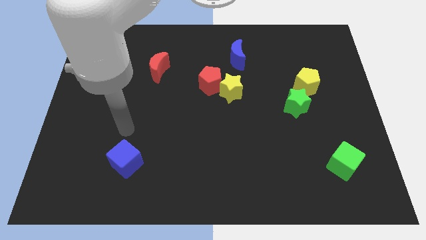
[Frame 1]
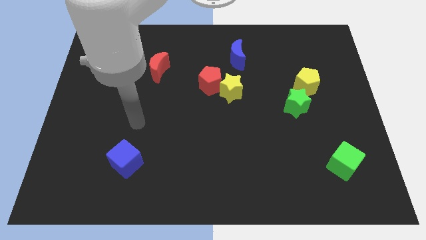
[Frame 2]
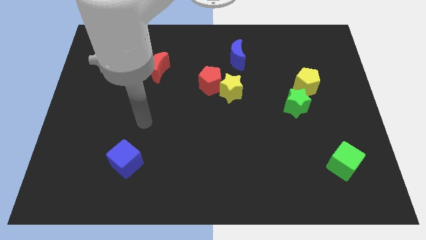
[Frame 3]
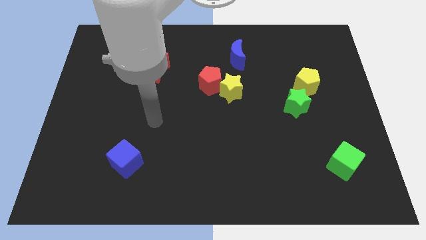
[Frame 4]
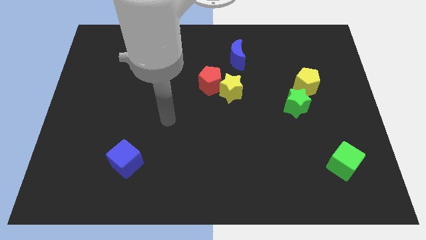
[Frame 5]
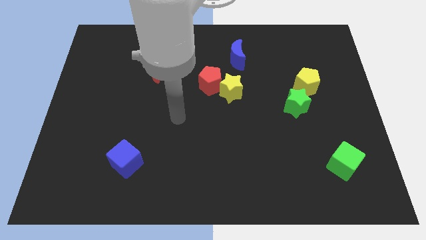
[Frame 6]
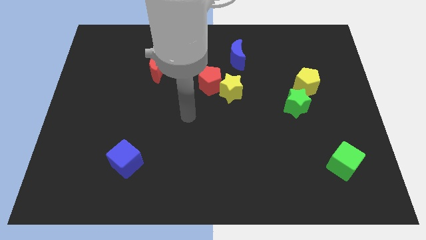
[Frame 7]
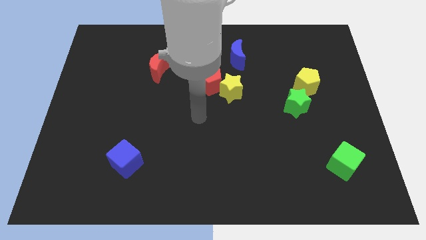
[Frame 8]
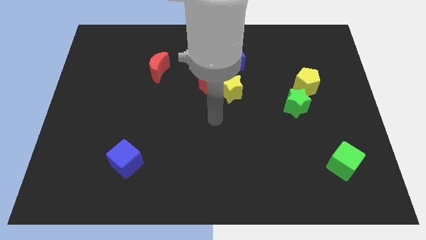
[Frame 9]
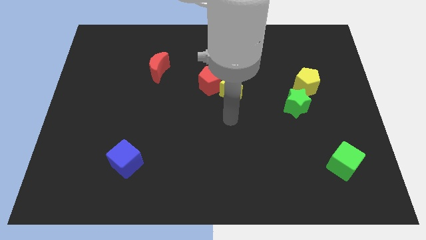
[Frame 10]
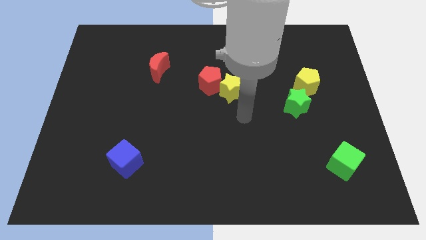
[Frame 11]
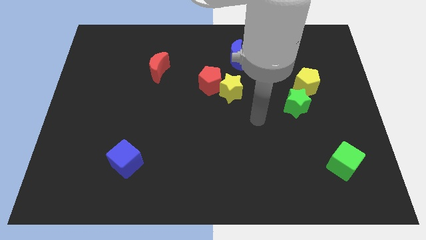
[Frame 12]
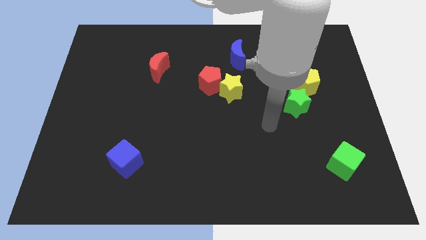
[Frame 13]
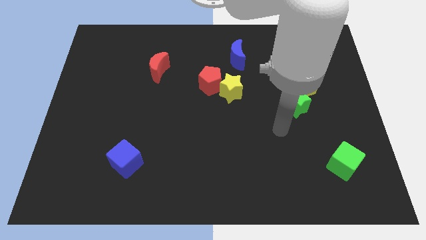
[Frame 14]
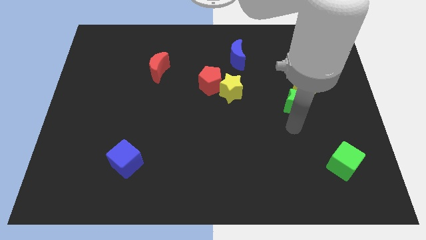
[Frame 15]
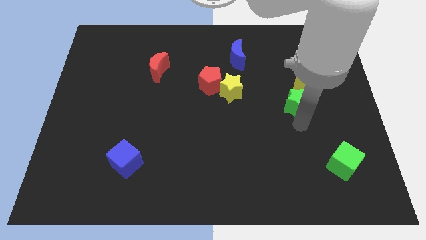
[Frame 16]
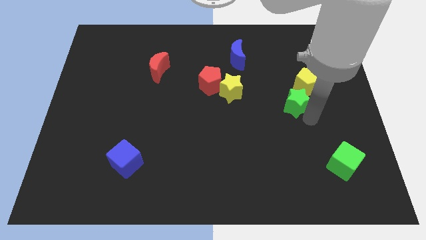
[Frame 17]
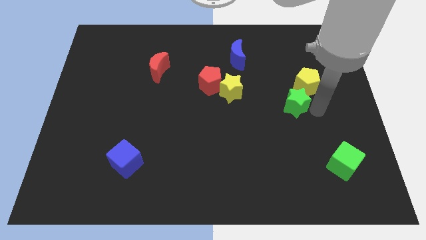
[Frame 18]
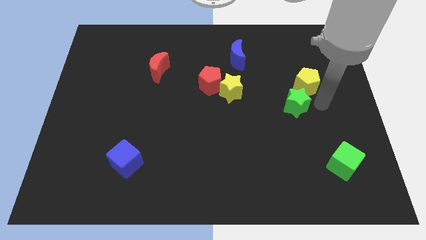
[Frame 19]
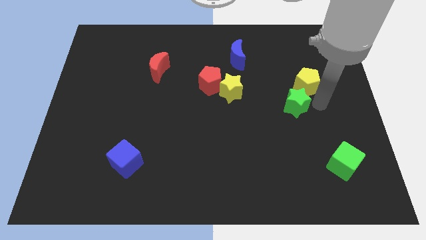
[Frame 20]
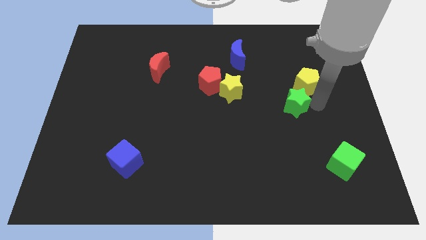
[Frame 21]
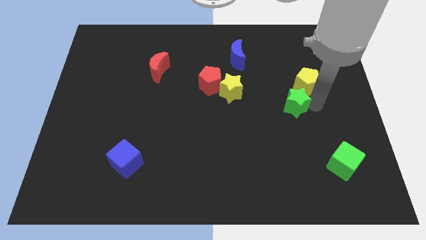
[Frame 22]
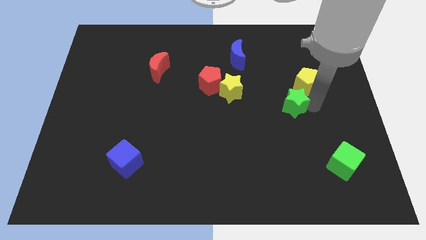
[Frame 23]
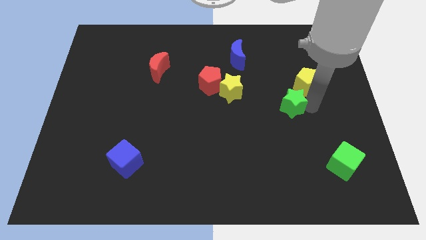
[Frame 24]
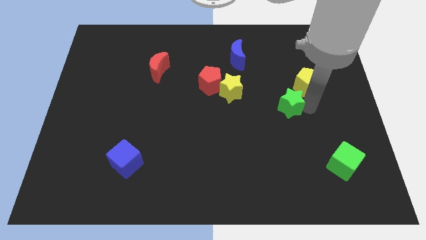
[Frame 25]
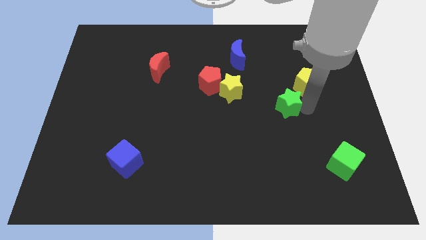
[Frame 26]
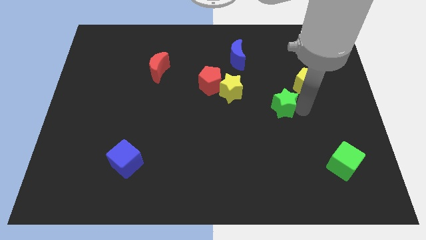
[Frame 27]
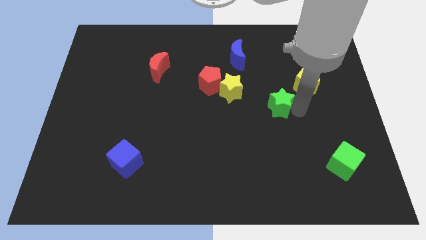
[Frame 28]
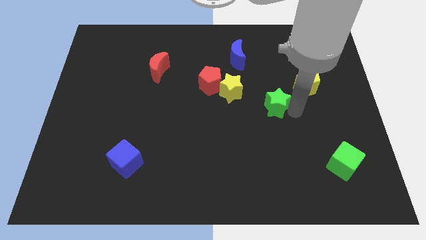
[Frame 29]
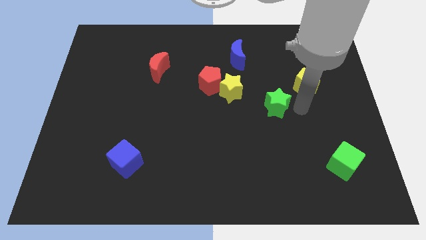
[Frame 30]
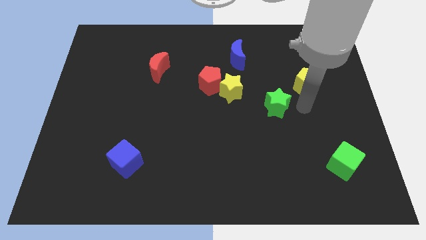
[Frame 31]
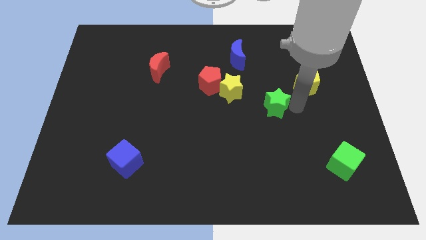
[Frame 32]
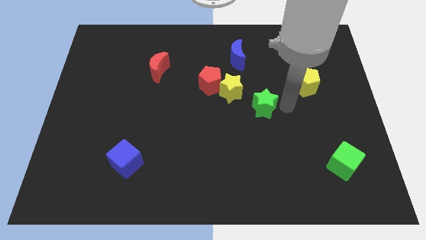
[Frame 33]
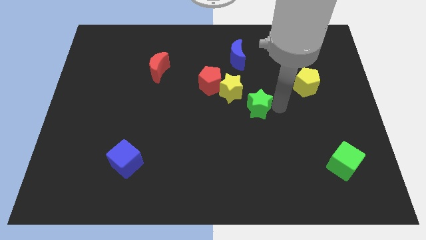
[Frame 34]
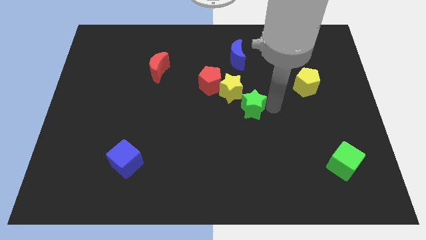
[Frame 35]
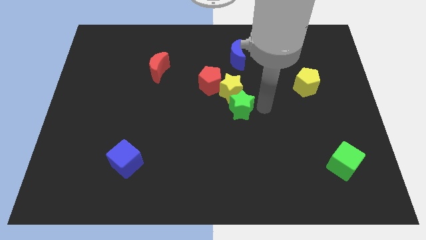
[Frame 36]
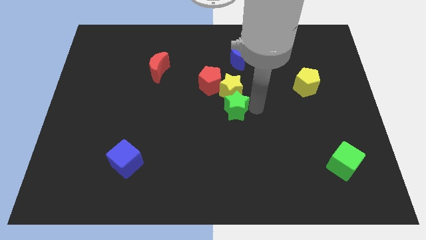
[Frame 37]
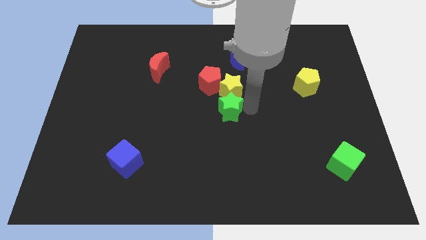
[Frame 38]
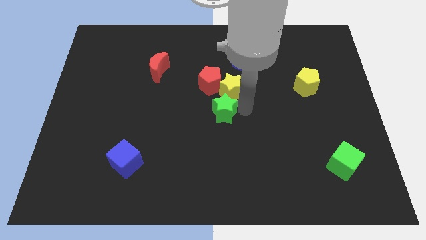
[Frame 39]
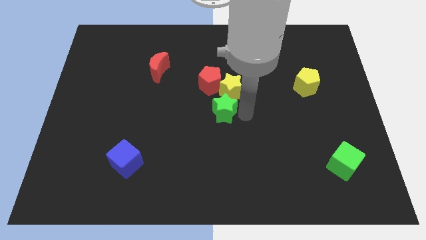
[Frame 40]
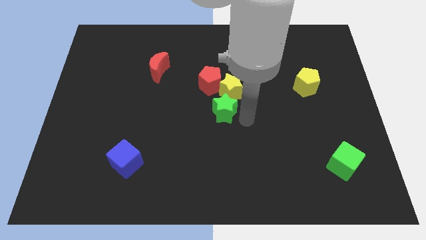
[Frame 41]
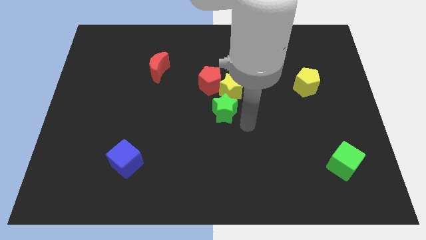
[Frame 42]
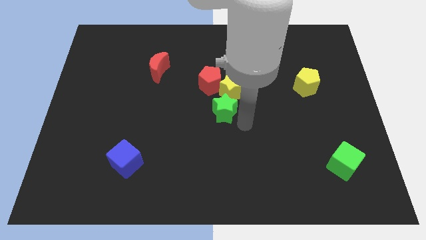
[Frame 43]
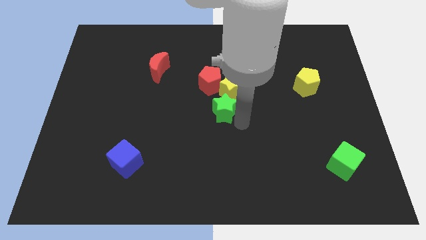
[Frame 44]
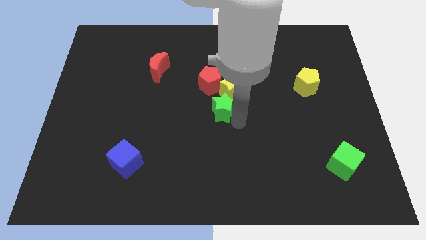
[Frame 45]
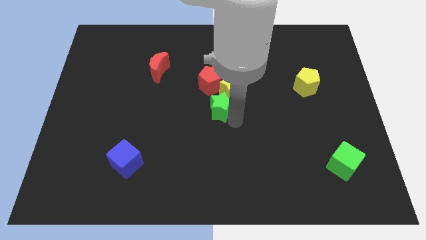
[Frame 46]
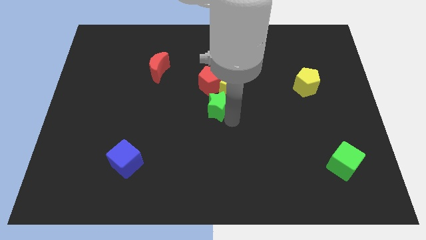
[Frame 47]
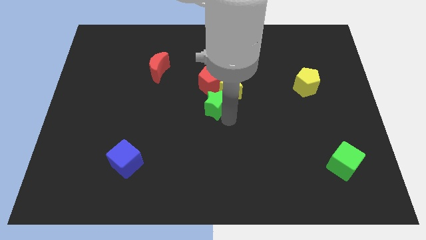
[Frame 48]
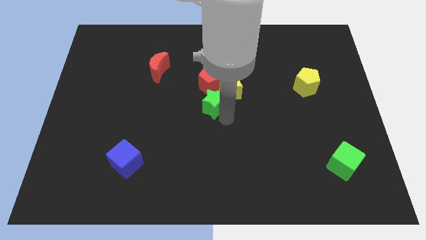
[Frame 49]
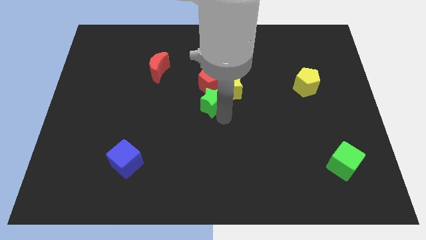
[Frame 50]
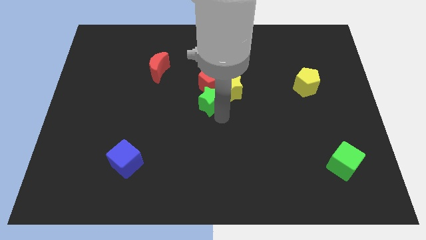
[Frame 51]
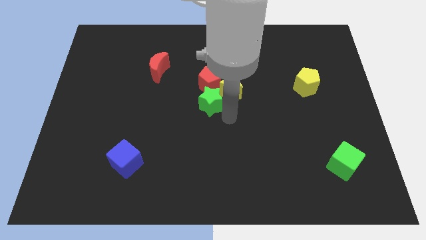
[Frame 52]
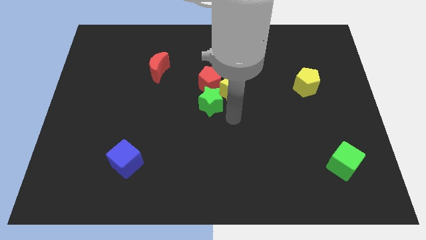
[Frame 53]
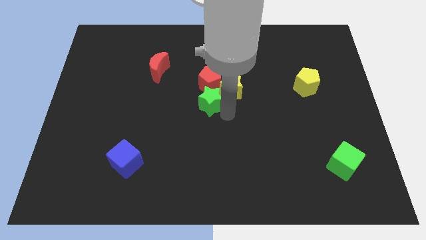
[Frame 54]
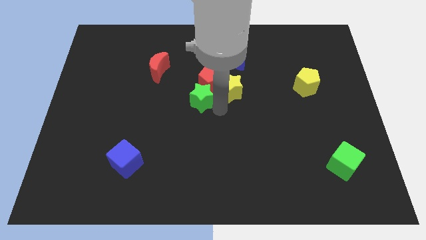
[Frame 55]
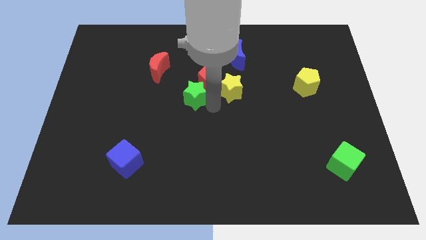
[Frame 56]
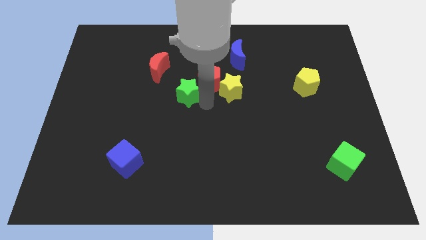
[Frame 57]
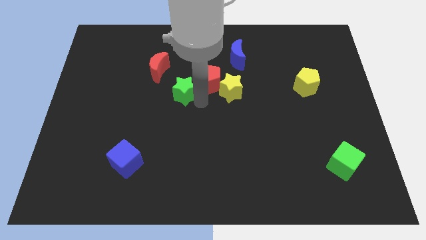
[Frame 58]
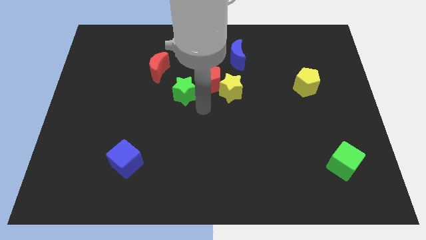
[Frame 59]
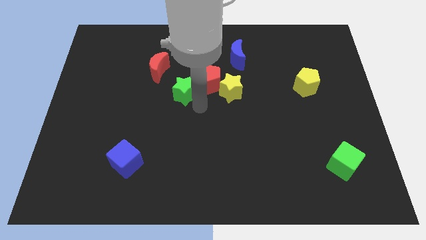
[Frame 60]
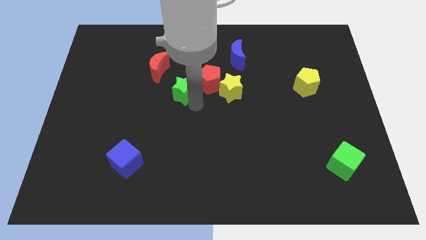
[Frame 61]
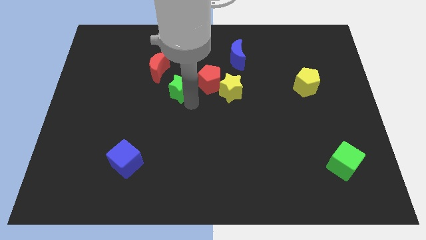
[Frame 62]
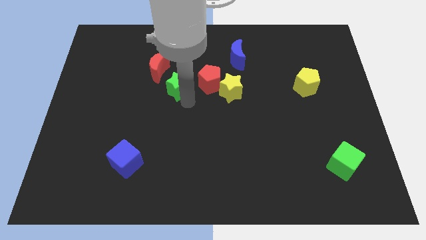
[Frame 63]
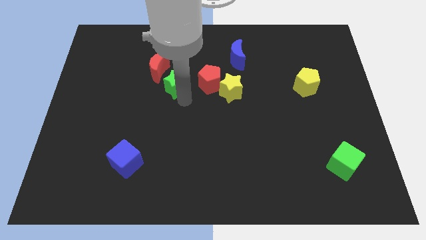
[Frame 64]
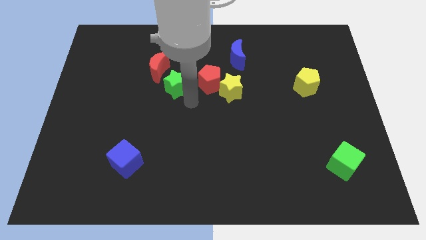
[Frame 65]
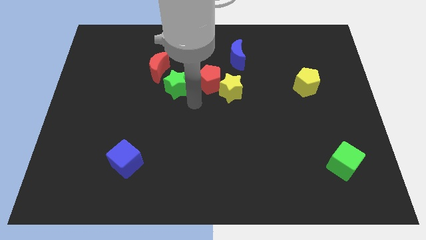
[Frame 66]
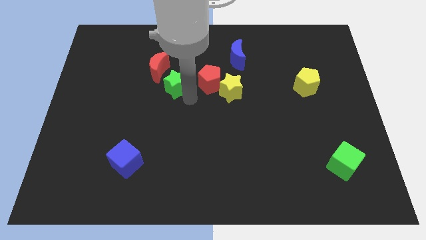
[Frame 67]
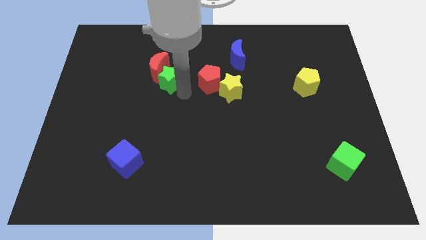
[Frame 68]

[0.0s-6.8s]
put the green star close to the red moon

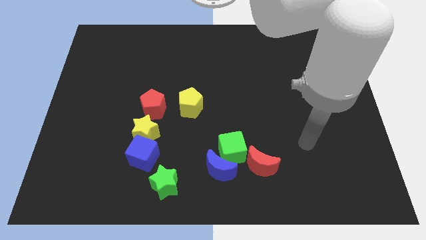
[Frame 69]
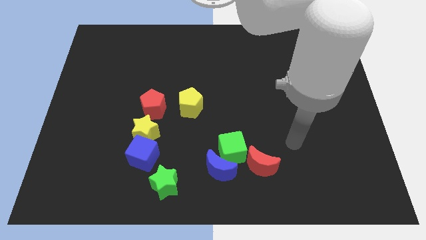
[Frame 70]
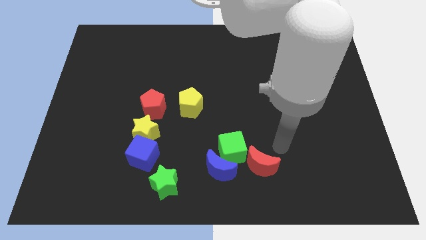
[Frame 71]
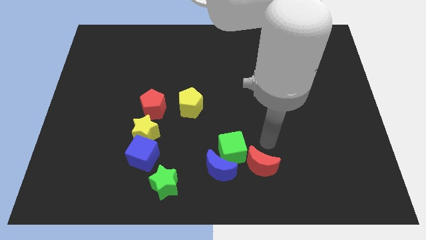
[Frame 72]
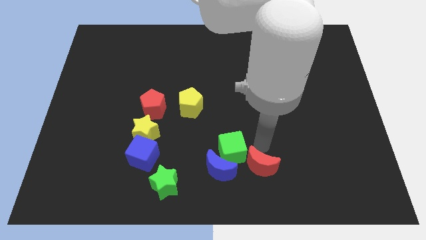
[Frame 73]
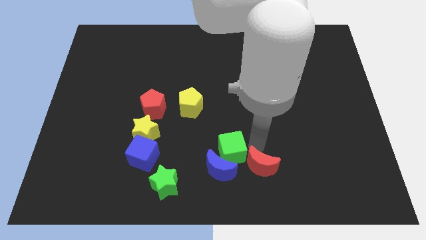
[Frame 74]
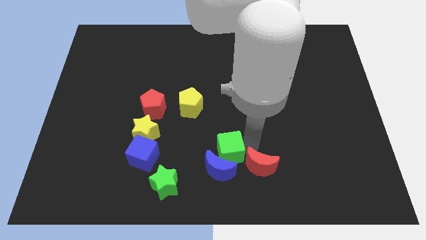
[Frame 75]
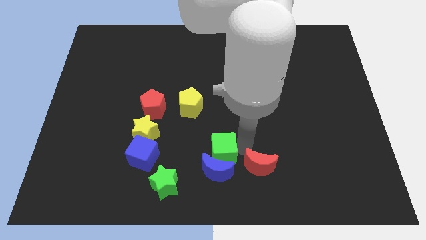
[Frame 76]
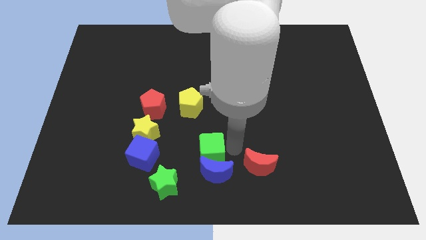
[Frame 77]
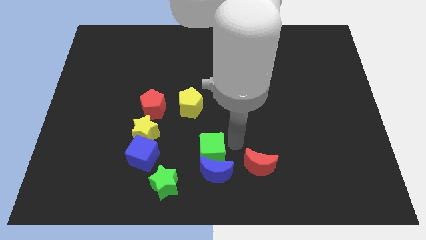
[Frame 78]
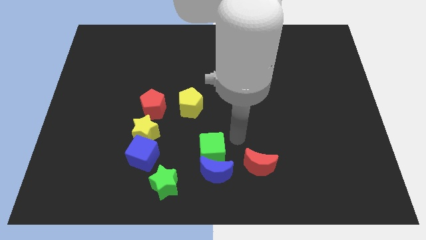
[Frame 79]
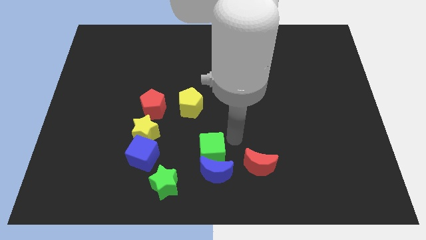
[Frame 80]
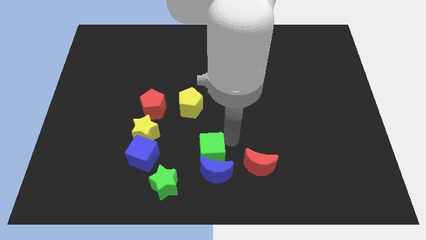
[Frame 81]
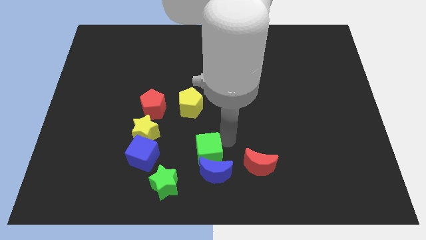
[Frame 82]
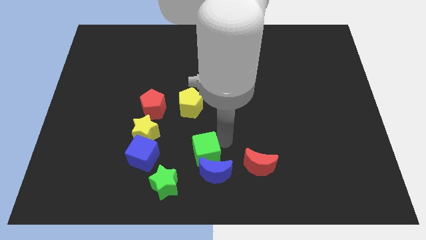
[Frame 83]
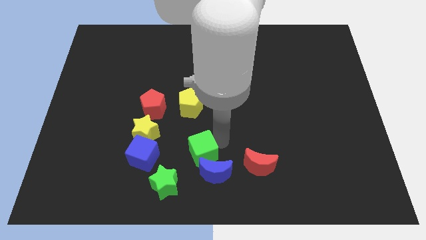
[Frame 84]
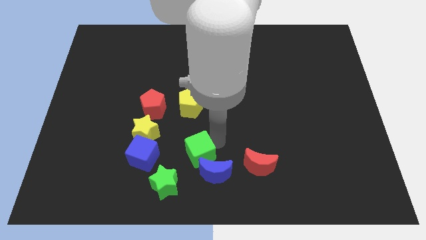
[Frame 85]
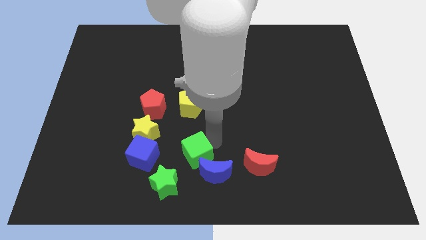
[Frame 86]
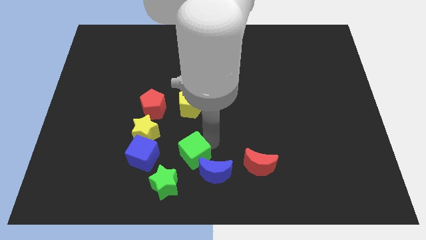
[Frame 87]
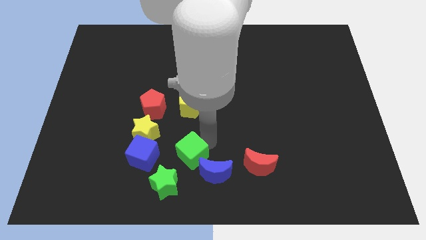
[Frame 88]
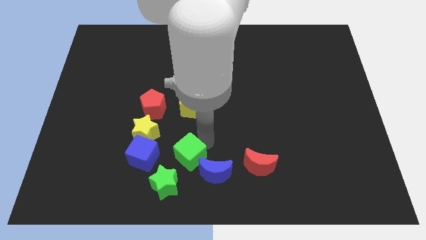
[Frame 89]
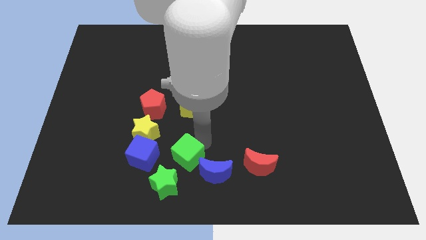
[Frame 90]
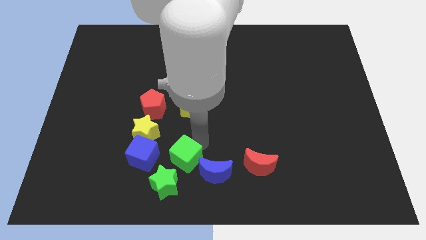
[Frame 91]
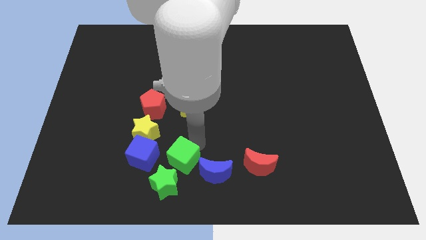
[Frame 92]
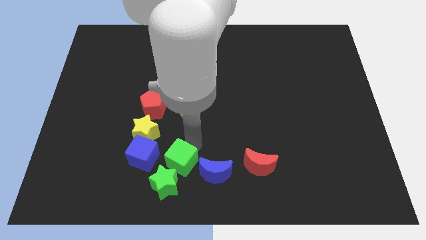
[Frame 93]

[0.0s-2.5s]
put the green cube close to the green star
